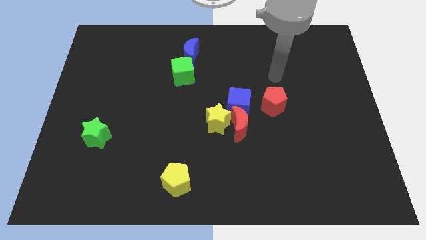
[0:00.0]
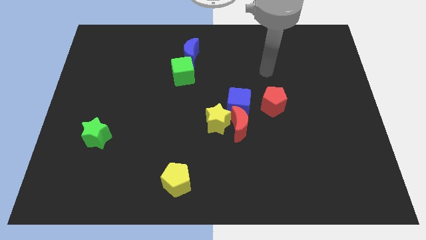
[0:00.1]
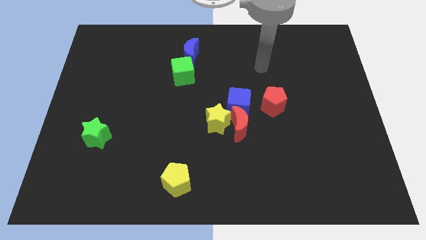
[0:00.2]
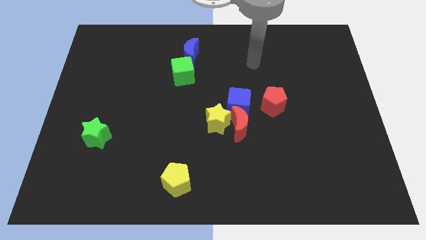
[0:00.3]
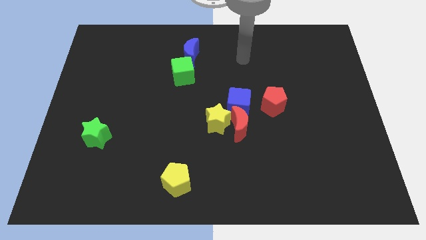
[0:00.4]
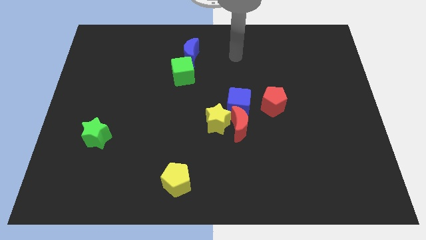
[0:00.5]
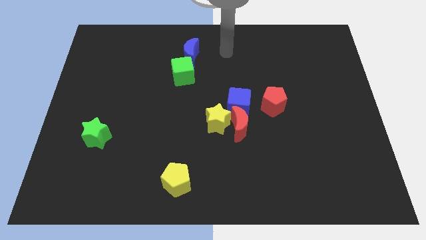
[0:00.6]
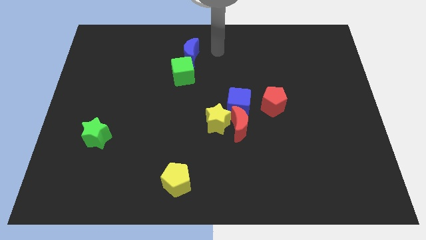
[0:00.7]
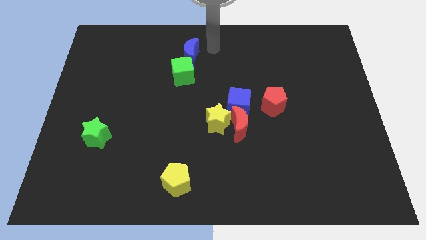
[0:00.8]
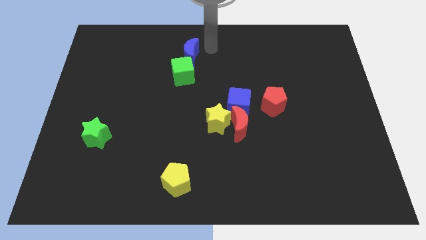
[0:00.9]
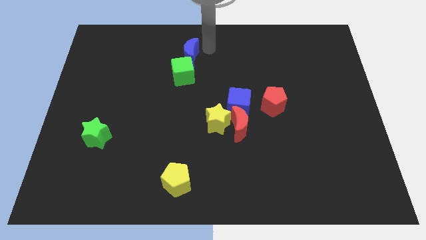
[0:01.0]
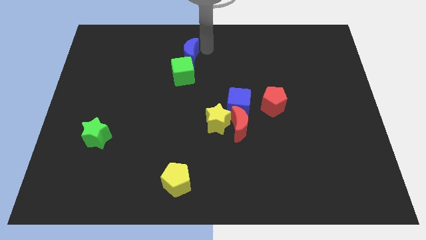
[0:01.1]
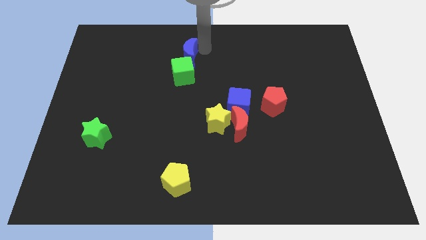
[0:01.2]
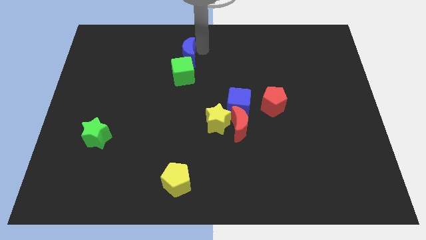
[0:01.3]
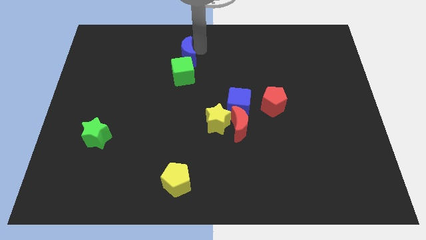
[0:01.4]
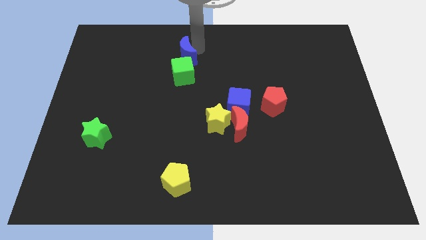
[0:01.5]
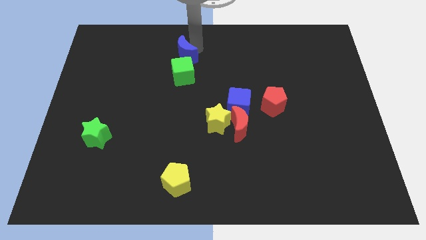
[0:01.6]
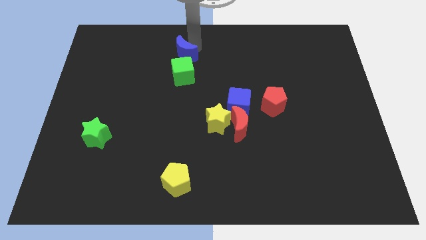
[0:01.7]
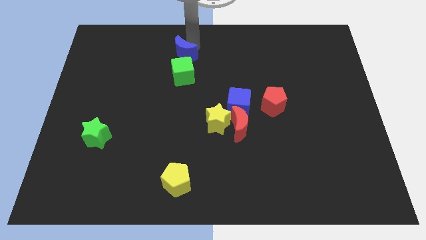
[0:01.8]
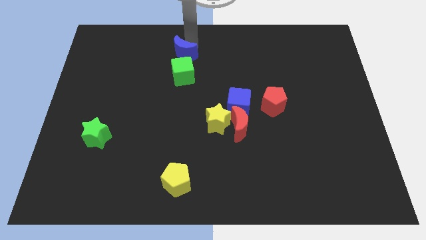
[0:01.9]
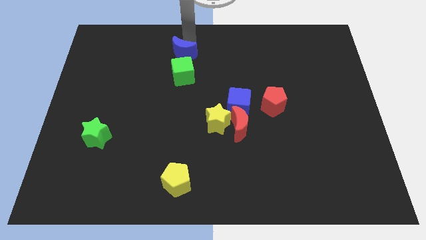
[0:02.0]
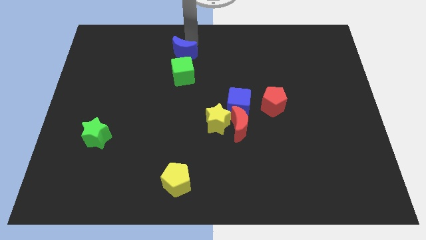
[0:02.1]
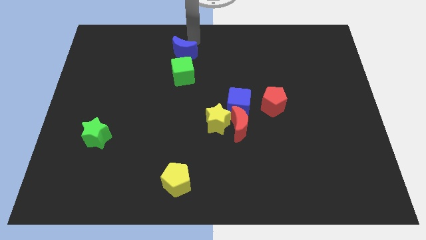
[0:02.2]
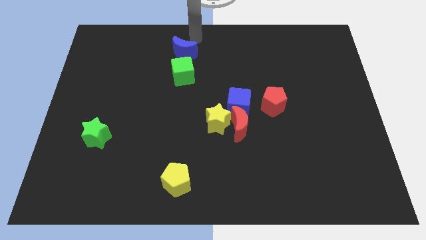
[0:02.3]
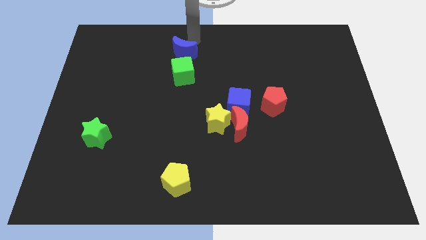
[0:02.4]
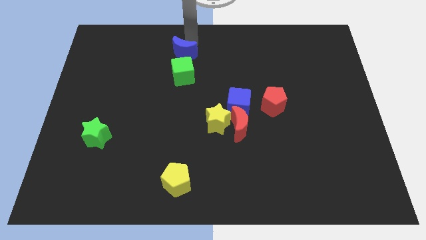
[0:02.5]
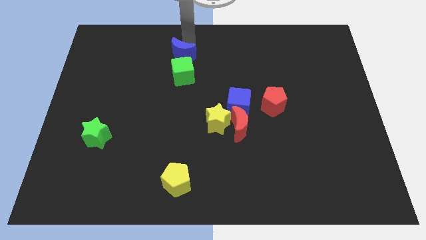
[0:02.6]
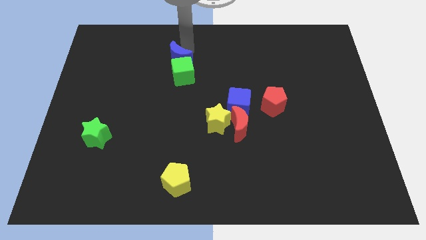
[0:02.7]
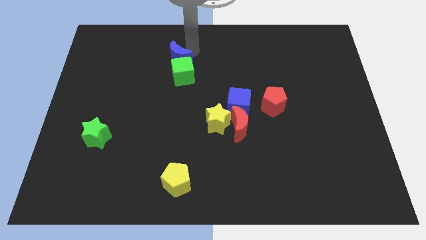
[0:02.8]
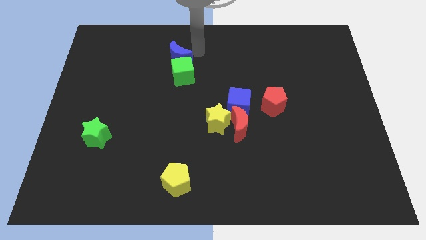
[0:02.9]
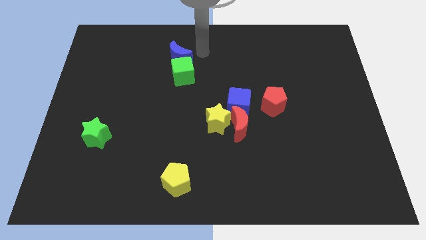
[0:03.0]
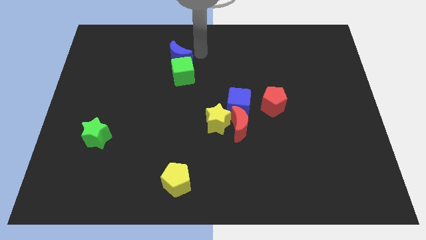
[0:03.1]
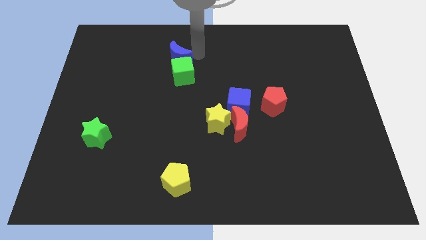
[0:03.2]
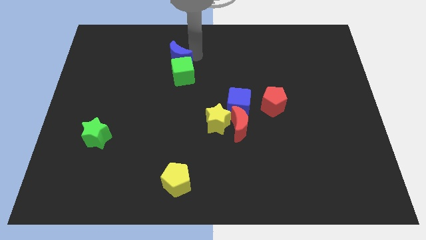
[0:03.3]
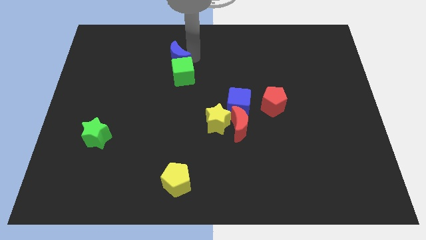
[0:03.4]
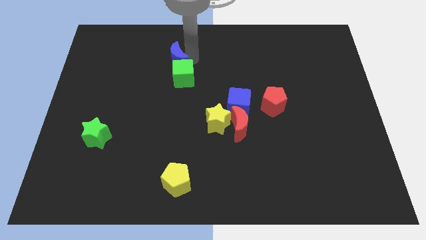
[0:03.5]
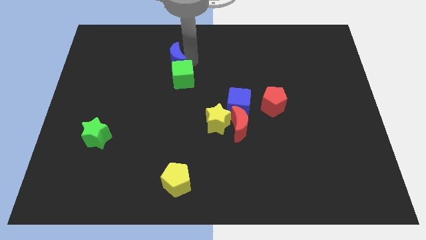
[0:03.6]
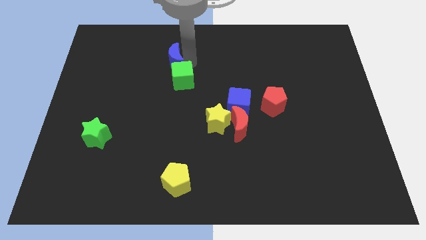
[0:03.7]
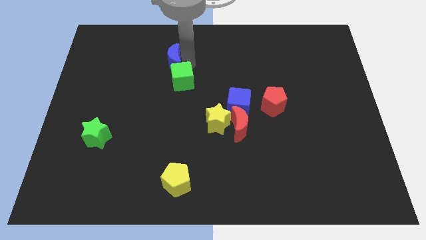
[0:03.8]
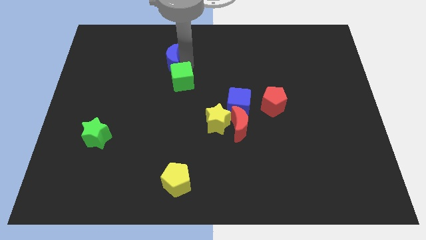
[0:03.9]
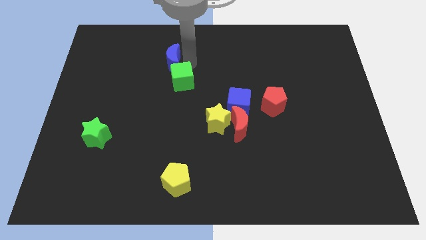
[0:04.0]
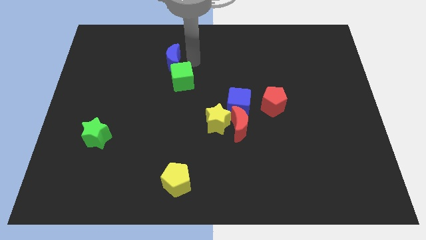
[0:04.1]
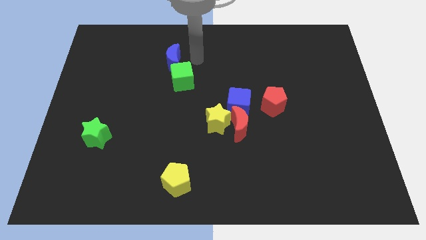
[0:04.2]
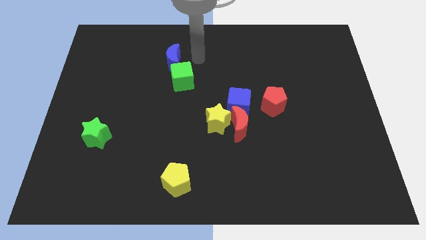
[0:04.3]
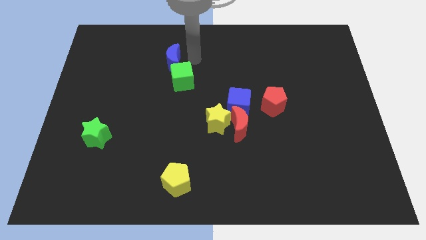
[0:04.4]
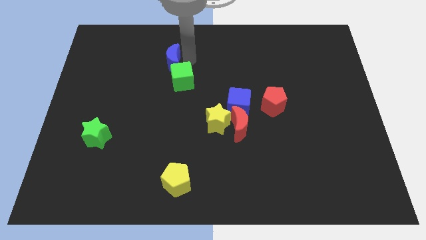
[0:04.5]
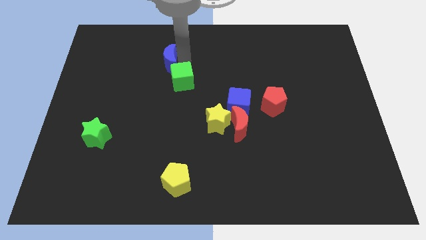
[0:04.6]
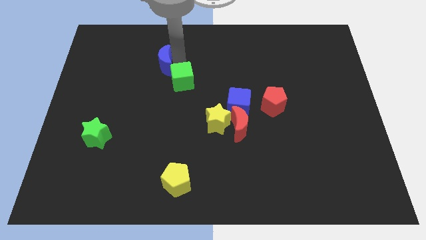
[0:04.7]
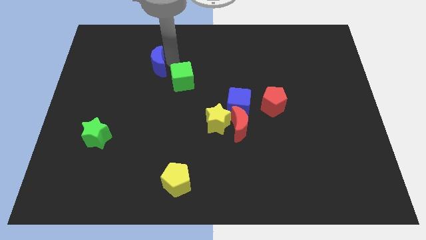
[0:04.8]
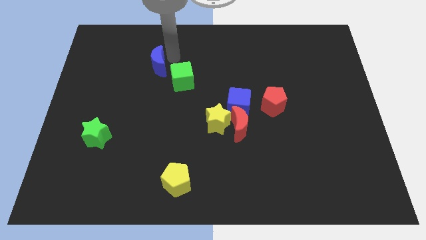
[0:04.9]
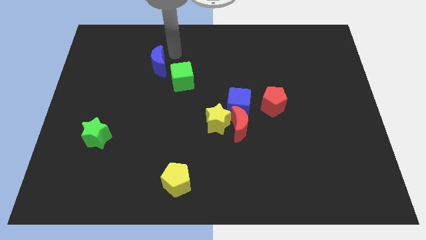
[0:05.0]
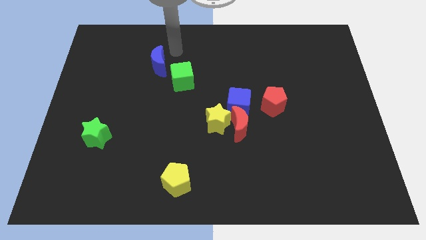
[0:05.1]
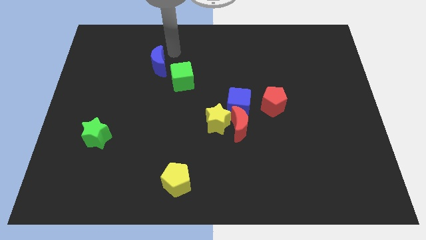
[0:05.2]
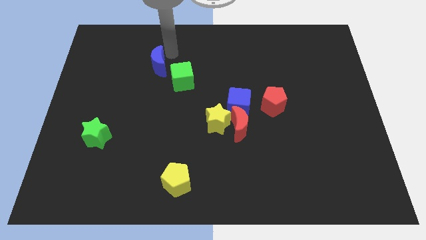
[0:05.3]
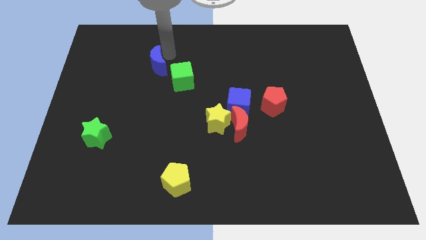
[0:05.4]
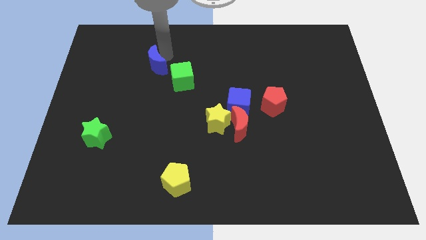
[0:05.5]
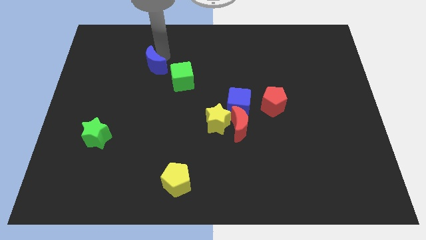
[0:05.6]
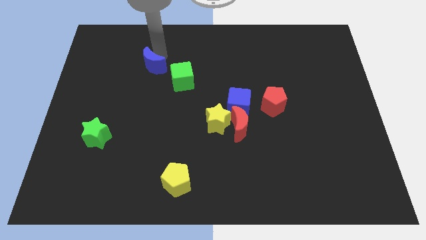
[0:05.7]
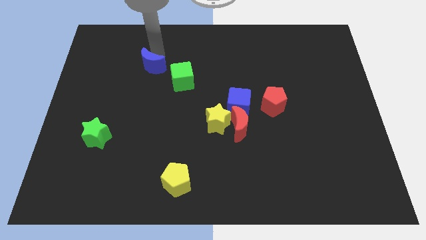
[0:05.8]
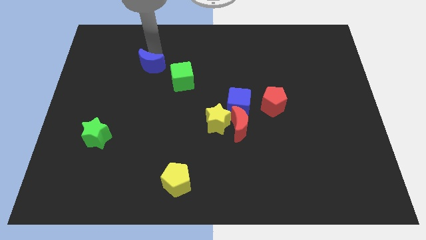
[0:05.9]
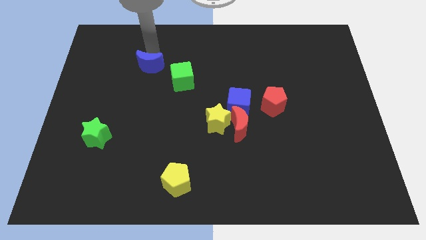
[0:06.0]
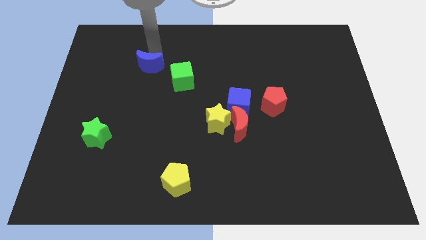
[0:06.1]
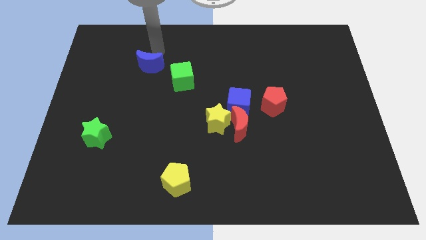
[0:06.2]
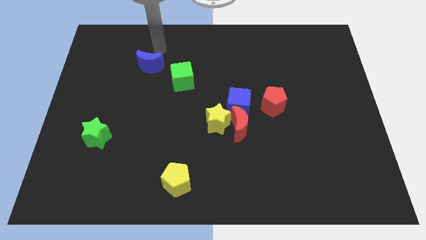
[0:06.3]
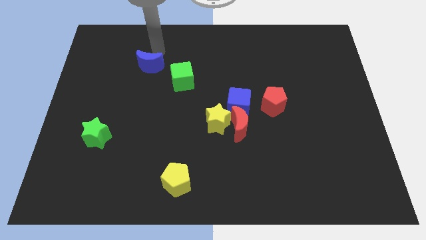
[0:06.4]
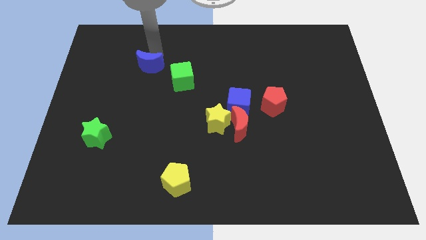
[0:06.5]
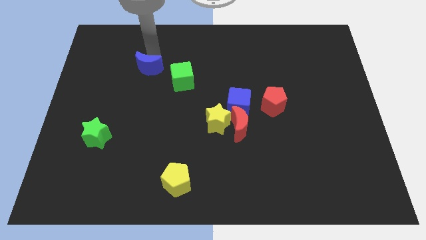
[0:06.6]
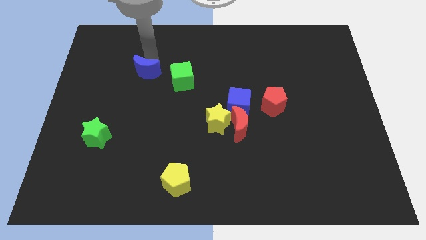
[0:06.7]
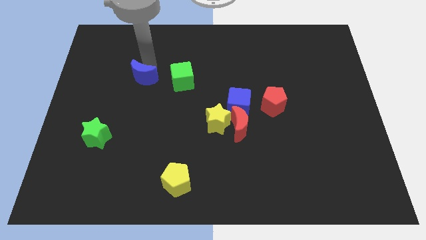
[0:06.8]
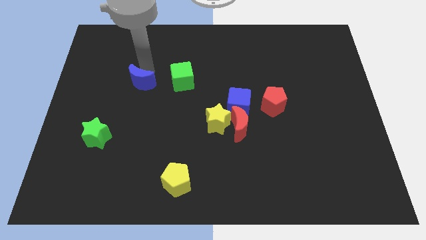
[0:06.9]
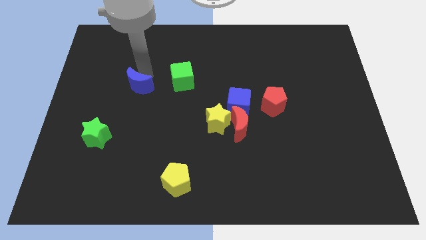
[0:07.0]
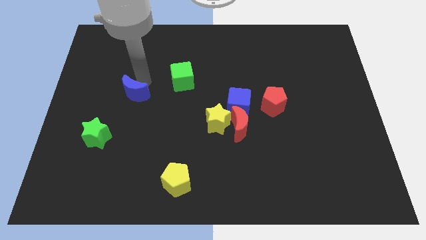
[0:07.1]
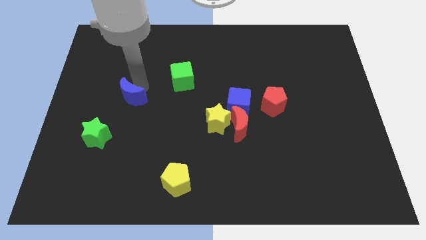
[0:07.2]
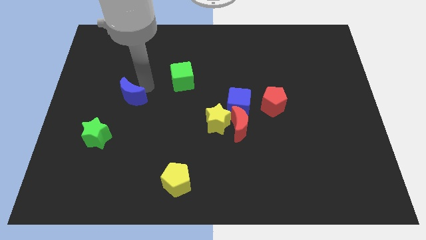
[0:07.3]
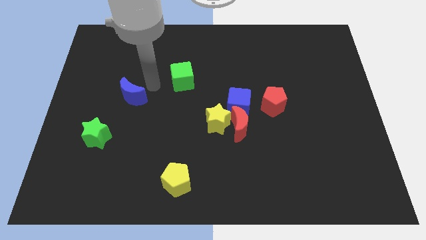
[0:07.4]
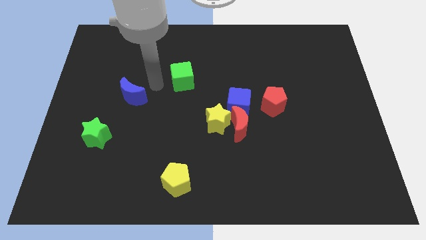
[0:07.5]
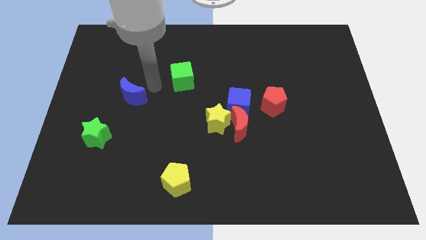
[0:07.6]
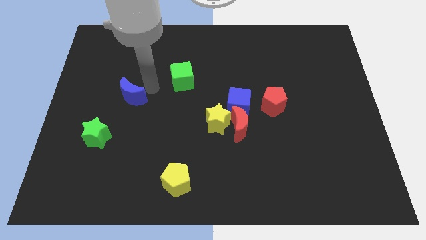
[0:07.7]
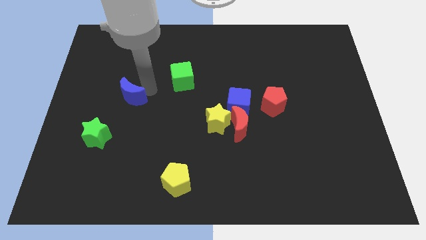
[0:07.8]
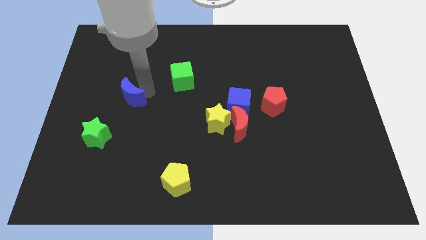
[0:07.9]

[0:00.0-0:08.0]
slide the blue moon diagonally downwards and to the left
